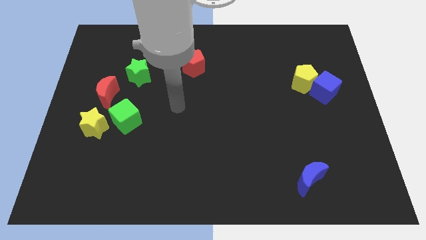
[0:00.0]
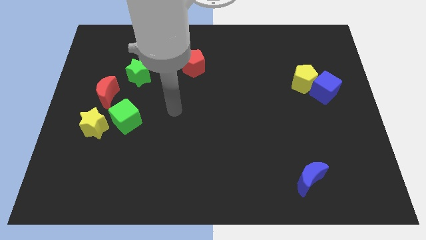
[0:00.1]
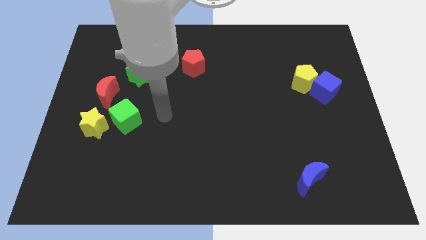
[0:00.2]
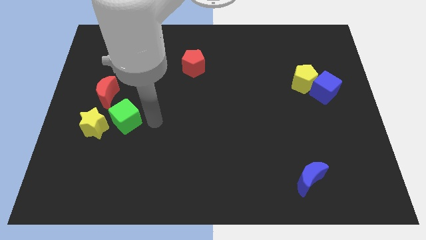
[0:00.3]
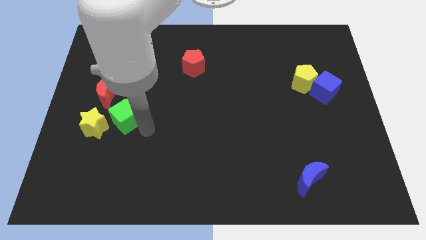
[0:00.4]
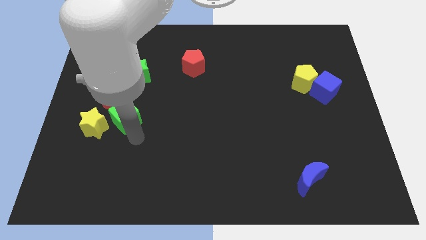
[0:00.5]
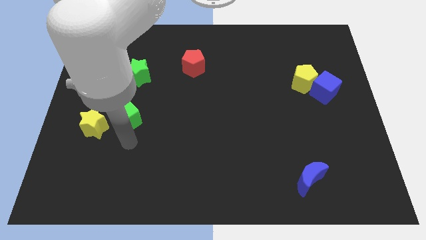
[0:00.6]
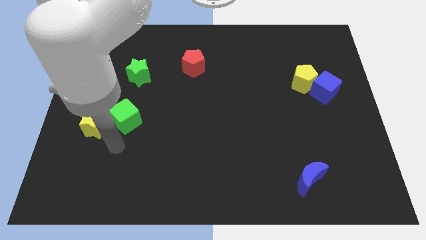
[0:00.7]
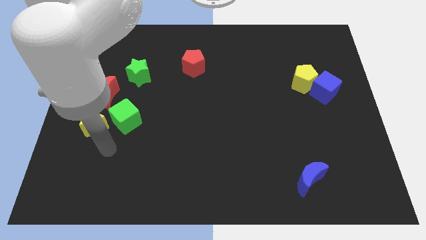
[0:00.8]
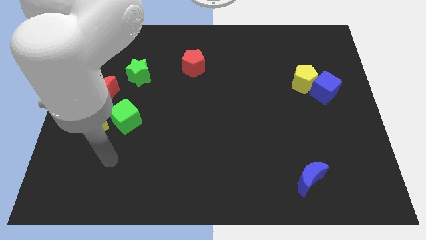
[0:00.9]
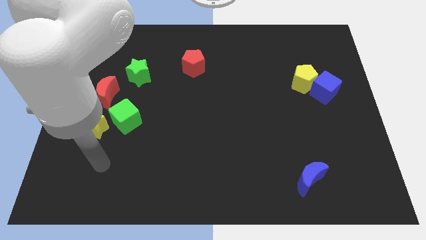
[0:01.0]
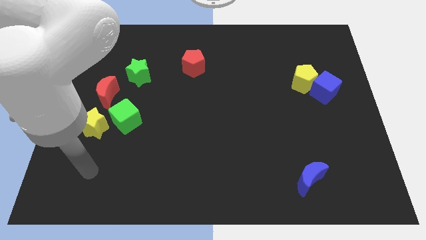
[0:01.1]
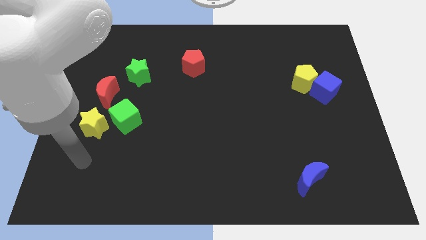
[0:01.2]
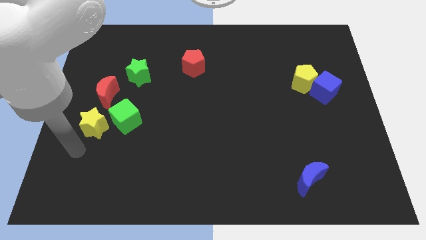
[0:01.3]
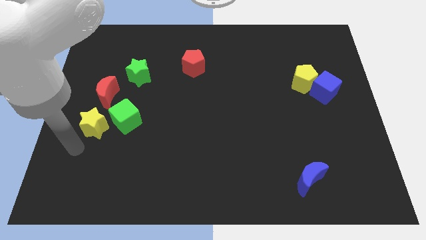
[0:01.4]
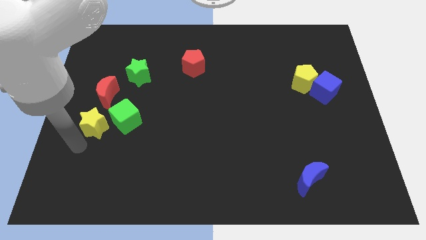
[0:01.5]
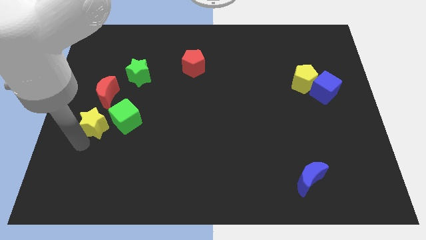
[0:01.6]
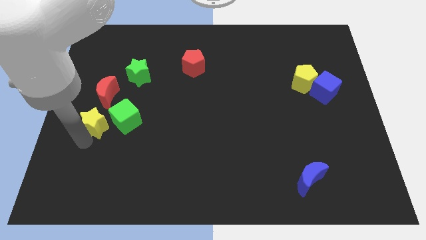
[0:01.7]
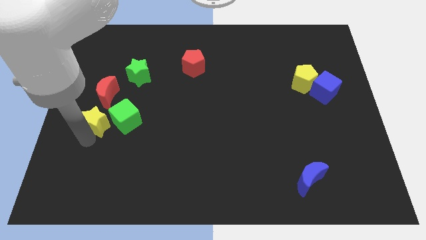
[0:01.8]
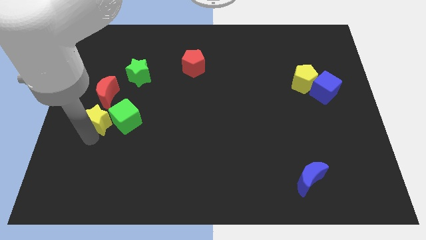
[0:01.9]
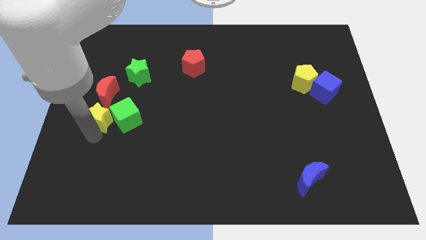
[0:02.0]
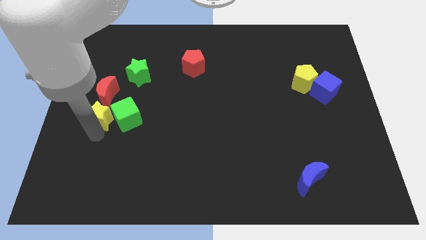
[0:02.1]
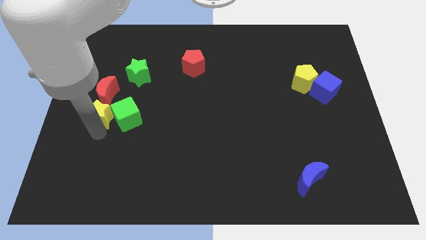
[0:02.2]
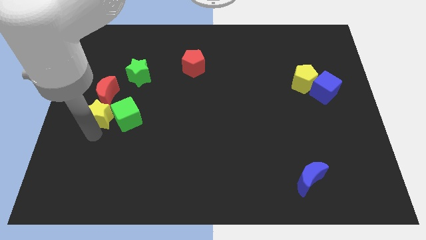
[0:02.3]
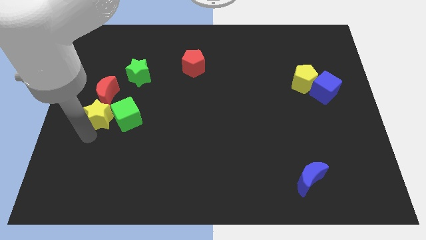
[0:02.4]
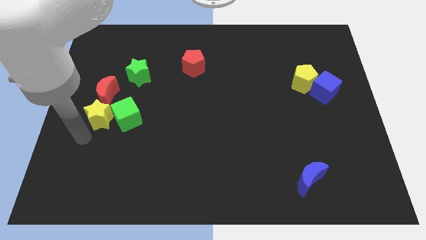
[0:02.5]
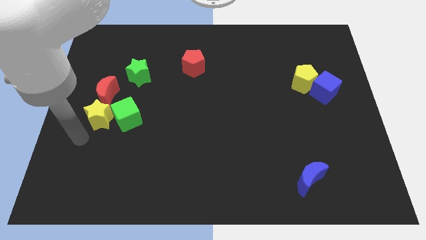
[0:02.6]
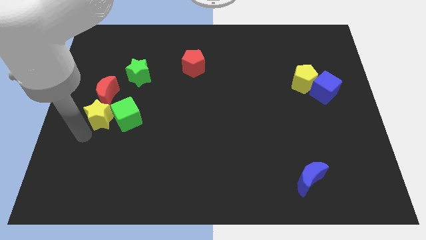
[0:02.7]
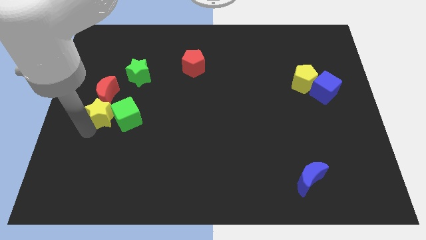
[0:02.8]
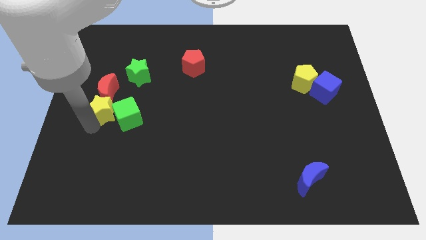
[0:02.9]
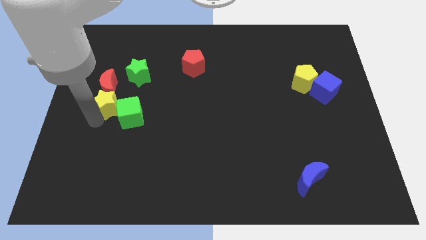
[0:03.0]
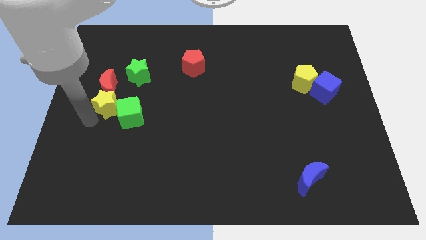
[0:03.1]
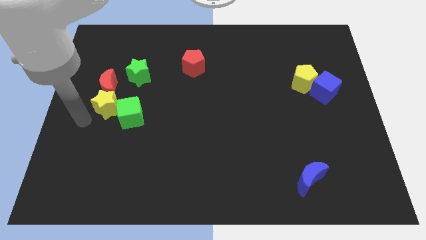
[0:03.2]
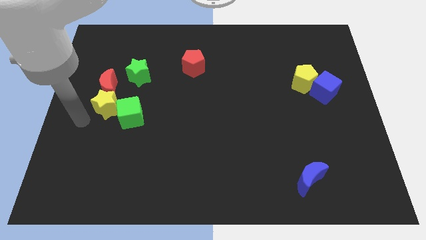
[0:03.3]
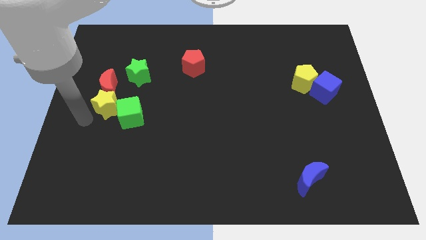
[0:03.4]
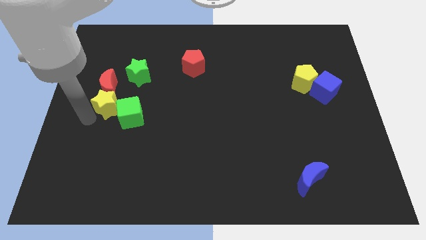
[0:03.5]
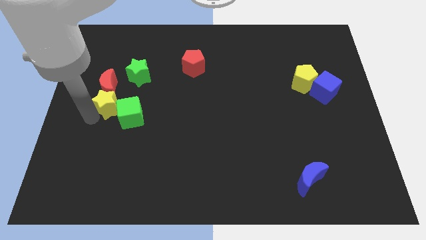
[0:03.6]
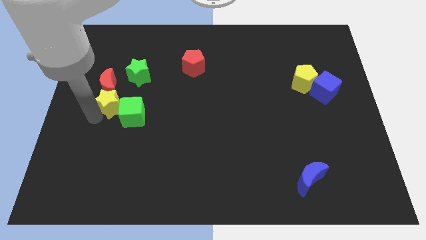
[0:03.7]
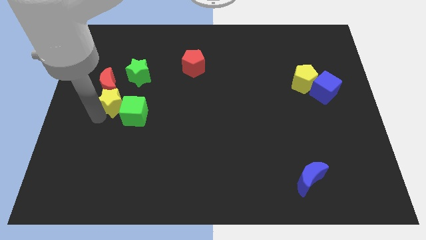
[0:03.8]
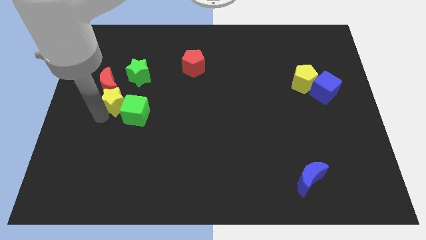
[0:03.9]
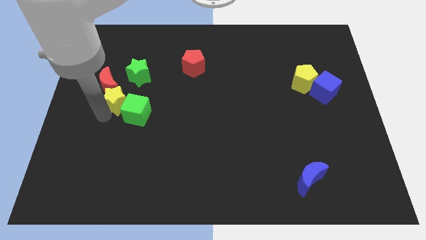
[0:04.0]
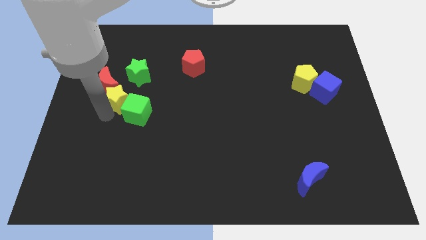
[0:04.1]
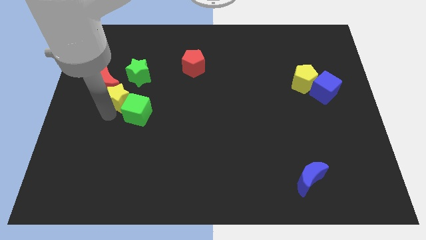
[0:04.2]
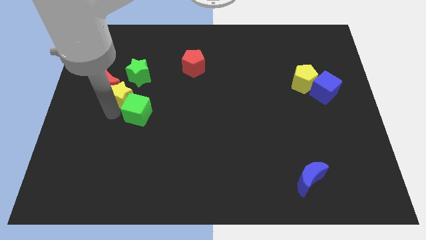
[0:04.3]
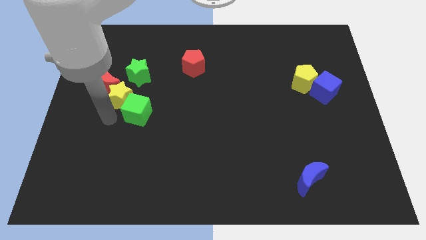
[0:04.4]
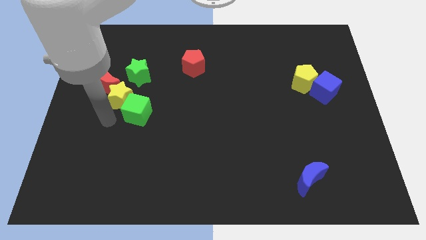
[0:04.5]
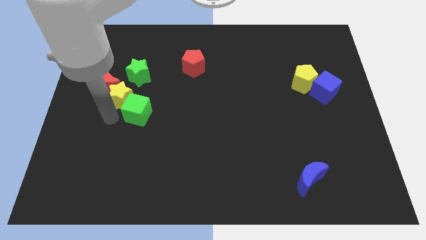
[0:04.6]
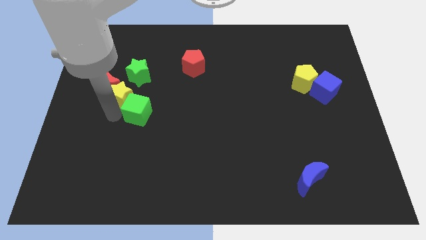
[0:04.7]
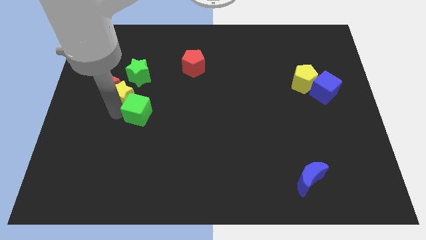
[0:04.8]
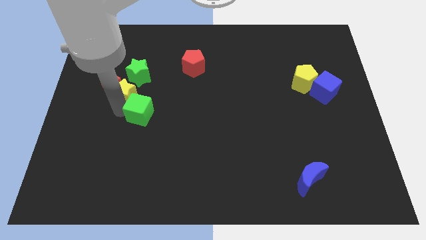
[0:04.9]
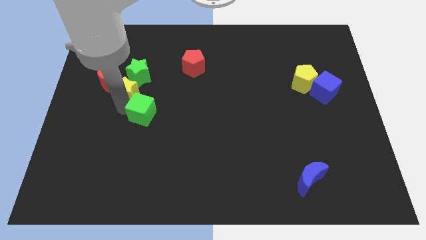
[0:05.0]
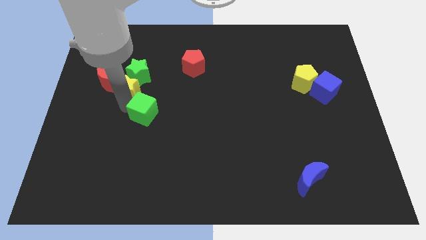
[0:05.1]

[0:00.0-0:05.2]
slide the yellow star close to the green star

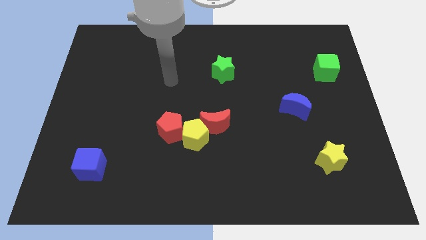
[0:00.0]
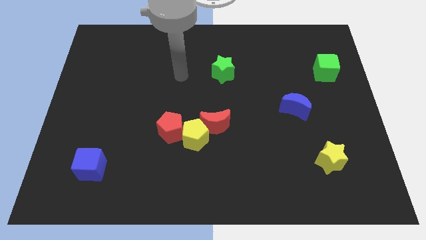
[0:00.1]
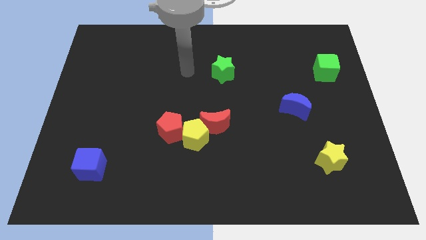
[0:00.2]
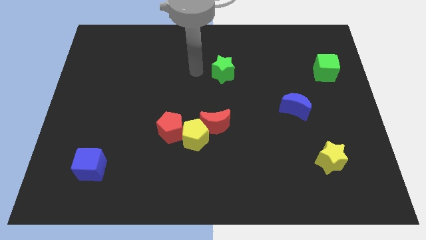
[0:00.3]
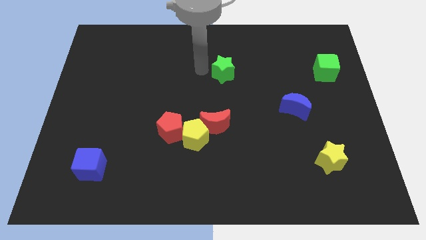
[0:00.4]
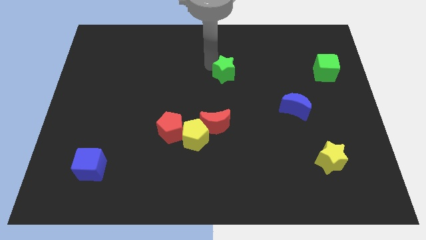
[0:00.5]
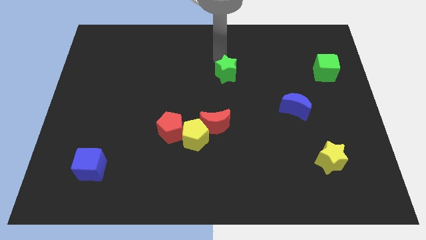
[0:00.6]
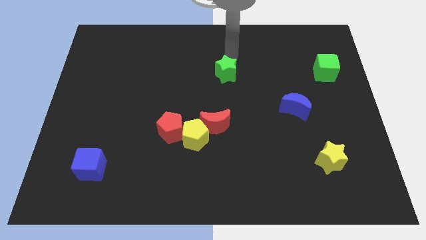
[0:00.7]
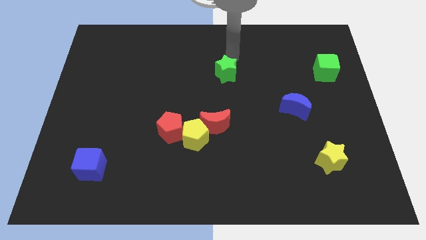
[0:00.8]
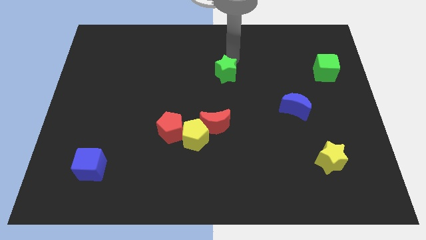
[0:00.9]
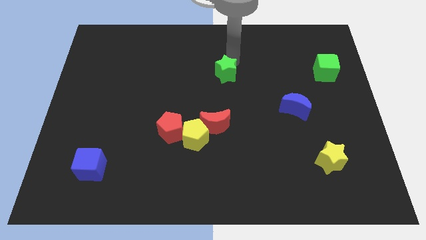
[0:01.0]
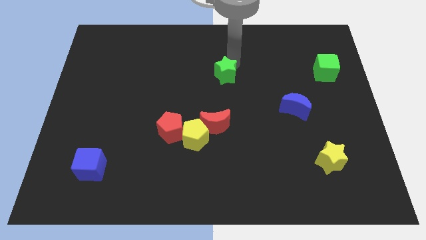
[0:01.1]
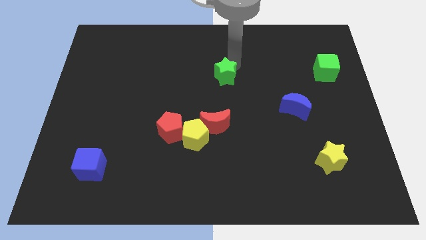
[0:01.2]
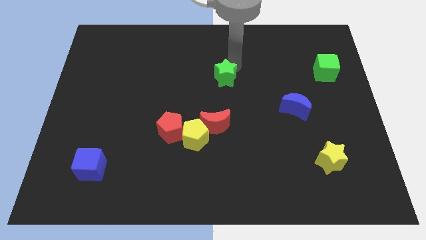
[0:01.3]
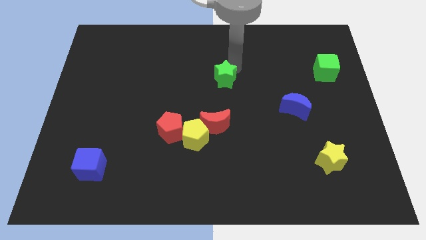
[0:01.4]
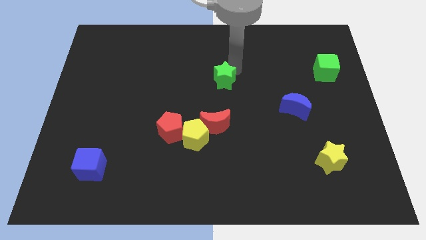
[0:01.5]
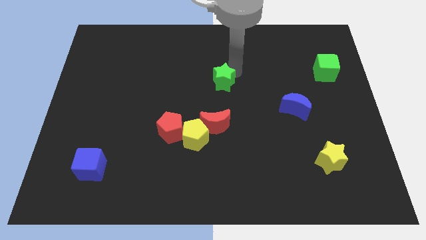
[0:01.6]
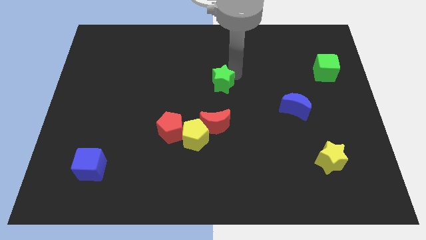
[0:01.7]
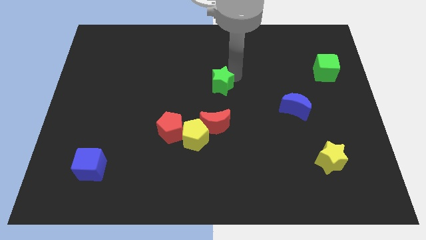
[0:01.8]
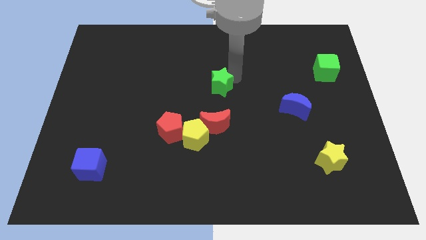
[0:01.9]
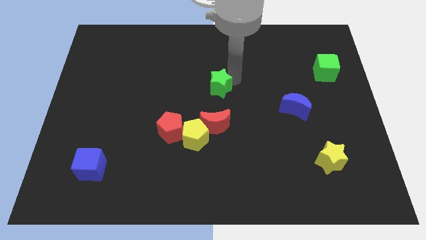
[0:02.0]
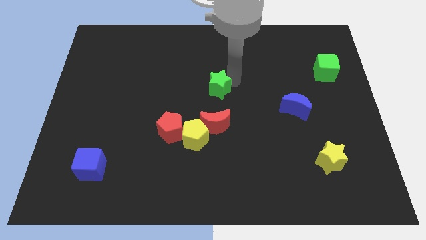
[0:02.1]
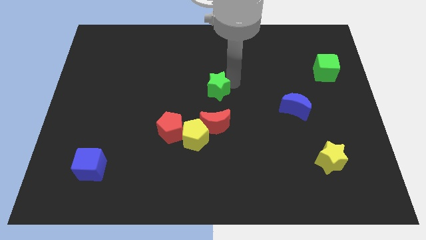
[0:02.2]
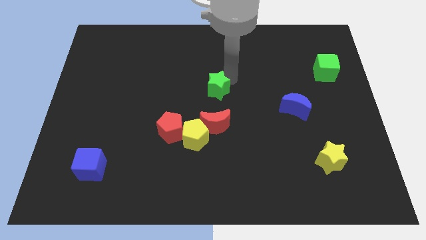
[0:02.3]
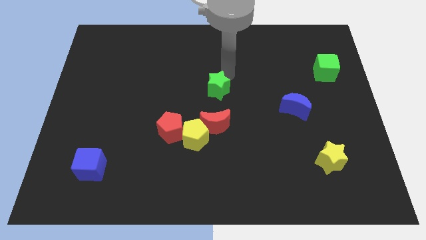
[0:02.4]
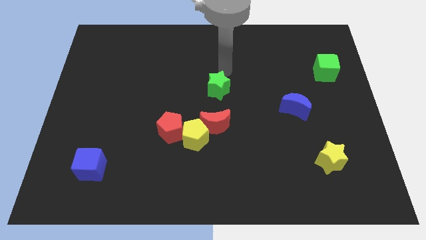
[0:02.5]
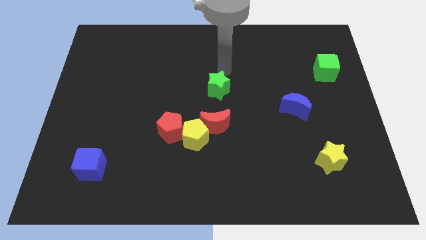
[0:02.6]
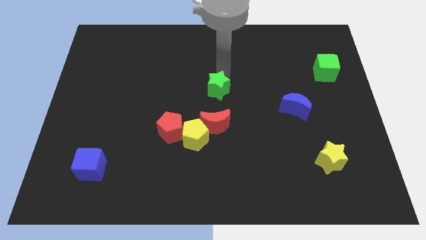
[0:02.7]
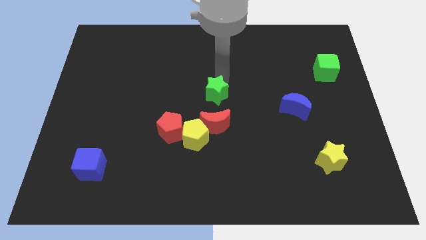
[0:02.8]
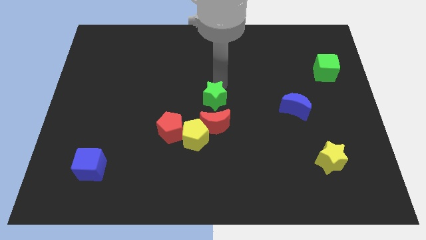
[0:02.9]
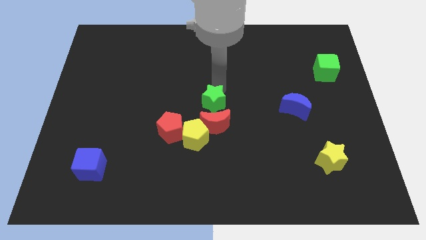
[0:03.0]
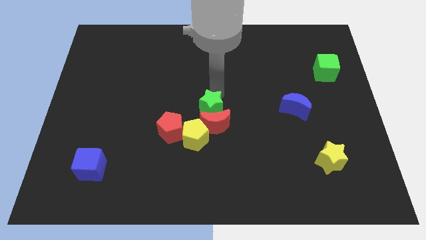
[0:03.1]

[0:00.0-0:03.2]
move the green star next to the red moon
